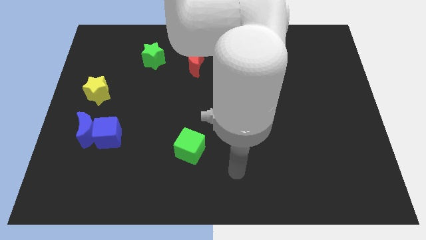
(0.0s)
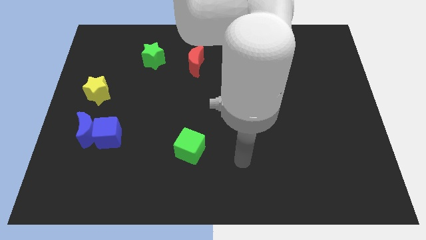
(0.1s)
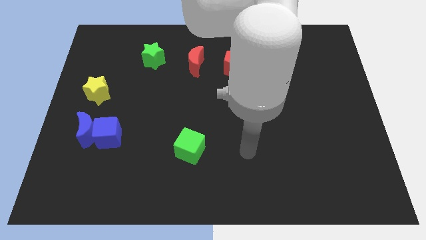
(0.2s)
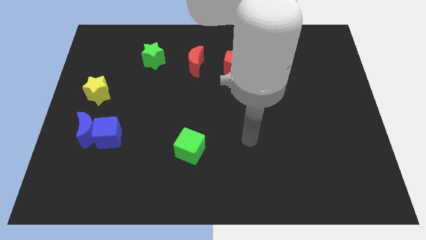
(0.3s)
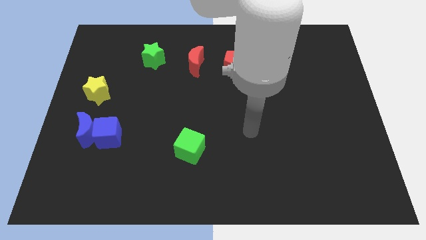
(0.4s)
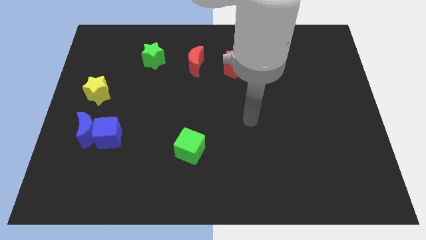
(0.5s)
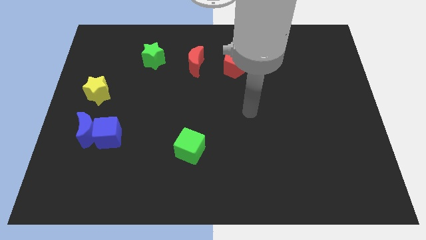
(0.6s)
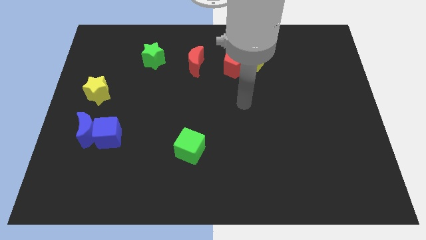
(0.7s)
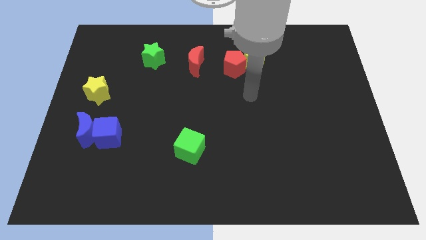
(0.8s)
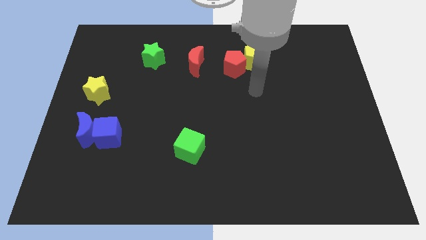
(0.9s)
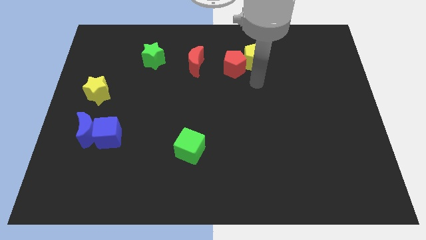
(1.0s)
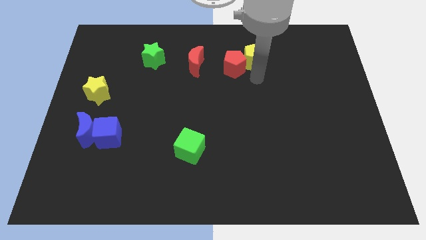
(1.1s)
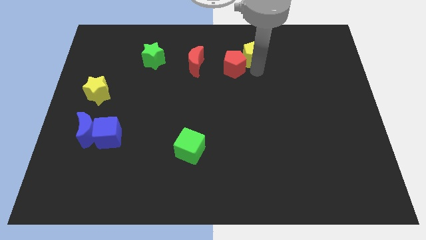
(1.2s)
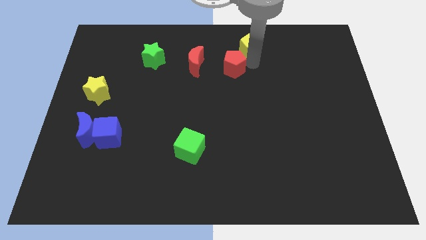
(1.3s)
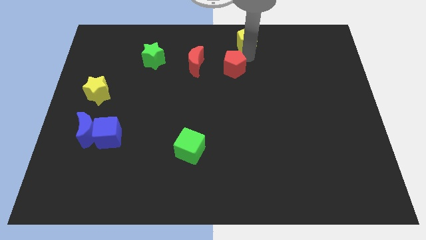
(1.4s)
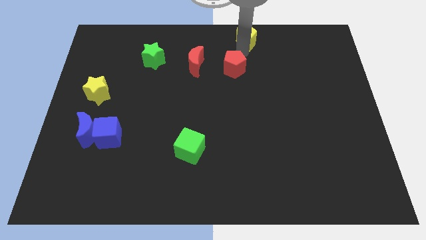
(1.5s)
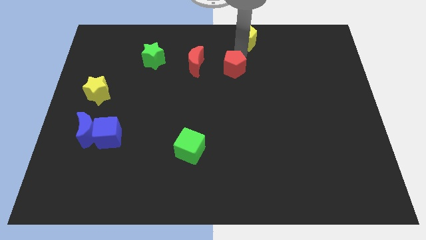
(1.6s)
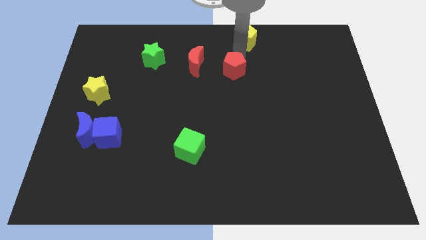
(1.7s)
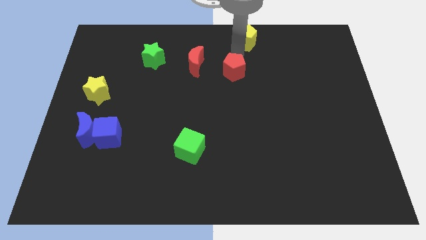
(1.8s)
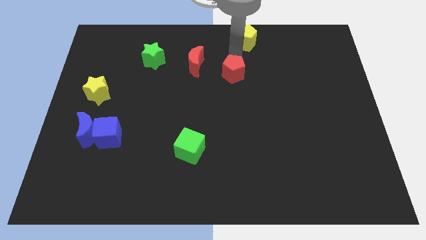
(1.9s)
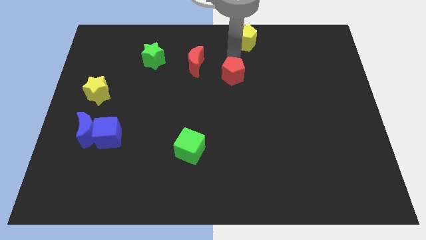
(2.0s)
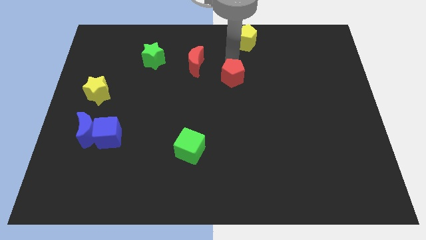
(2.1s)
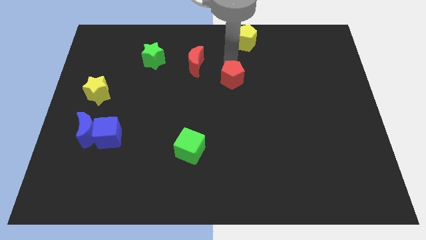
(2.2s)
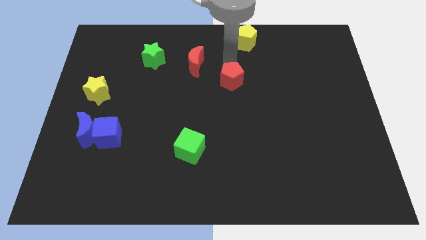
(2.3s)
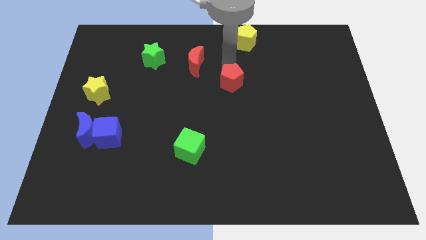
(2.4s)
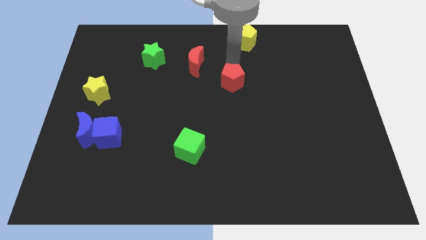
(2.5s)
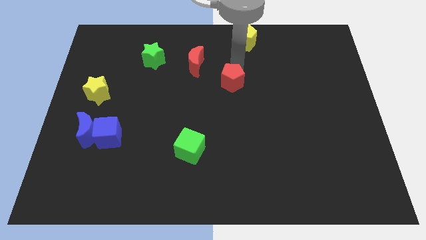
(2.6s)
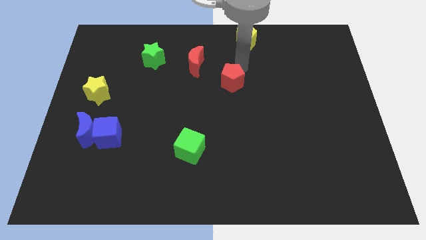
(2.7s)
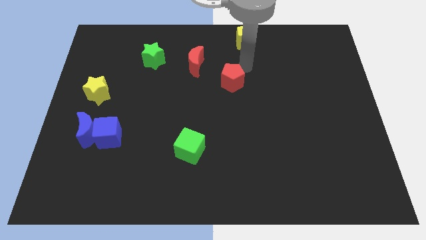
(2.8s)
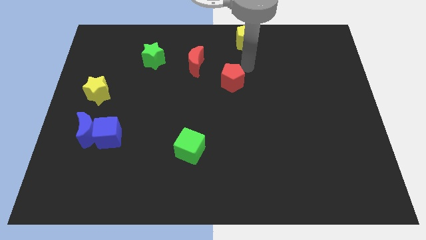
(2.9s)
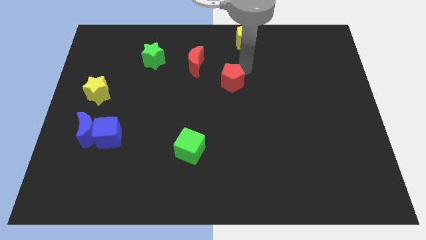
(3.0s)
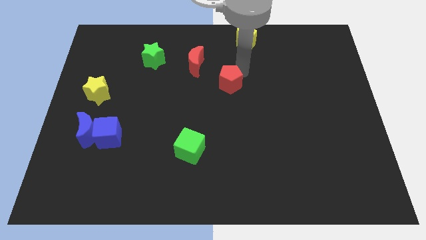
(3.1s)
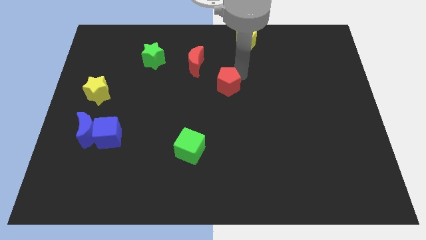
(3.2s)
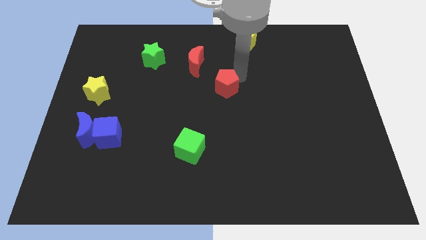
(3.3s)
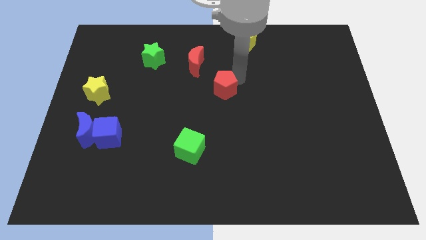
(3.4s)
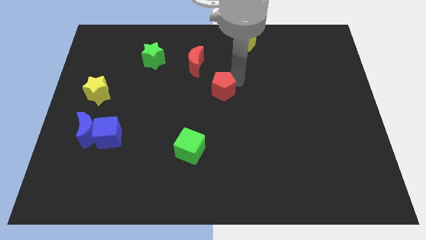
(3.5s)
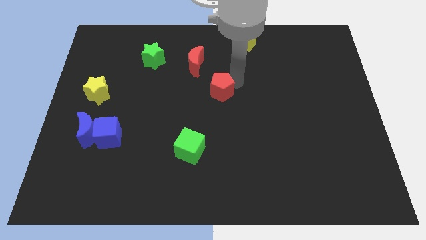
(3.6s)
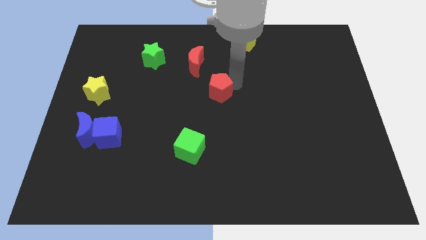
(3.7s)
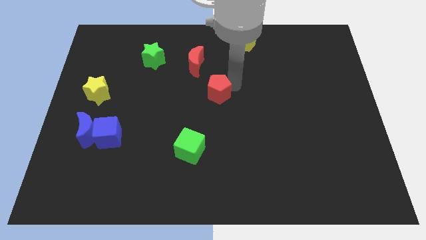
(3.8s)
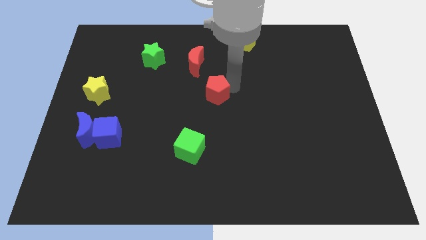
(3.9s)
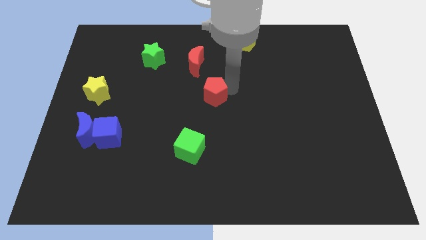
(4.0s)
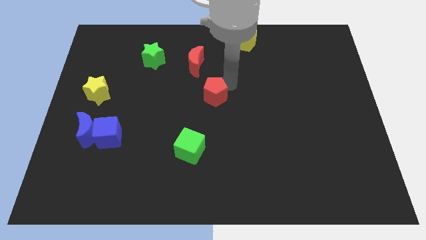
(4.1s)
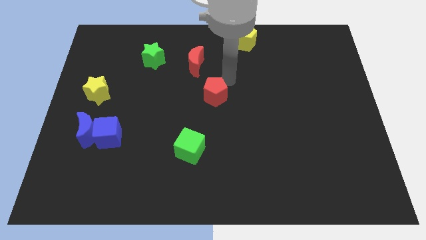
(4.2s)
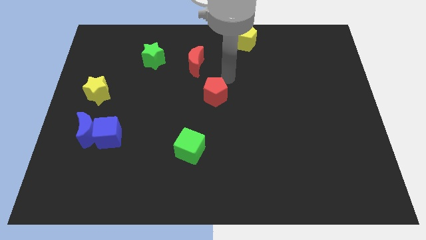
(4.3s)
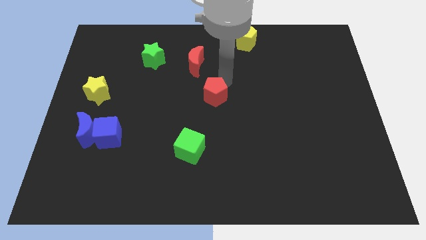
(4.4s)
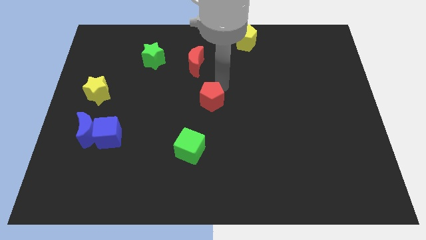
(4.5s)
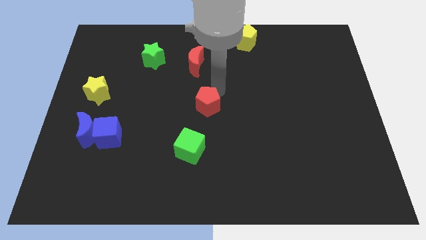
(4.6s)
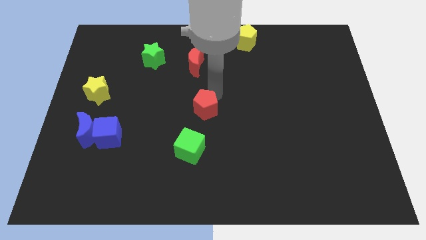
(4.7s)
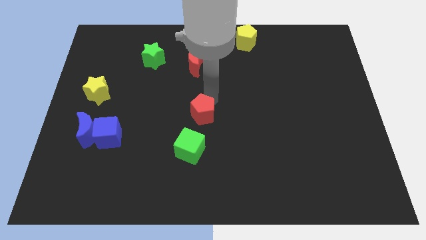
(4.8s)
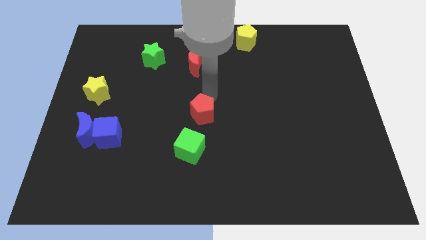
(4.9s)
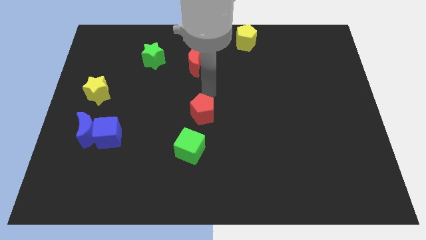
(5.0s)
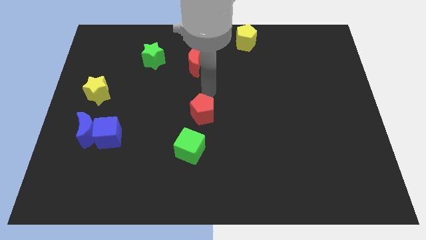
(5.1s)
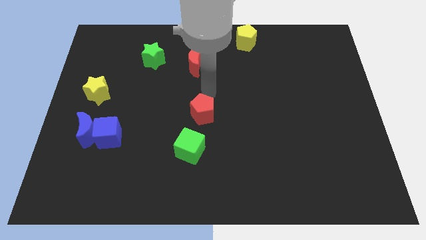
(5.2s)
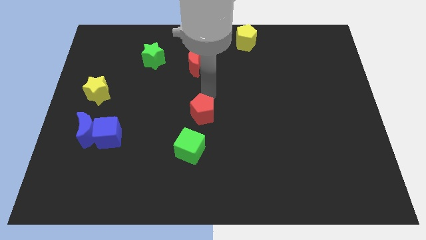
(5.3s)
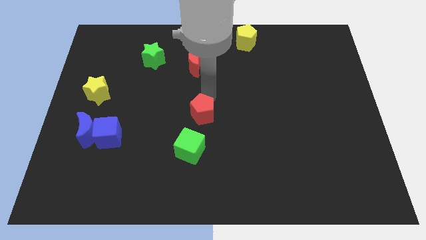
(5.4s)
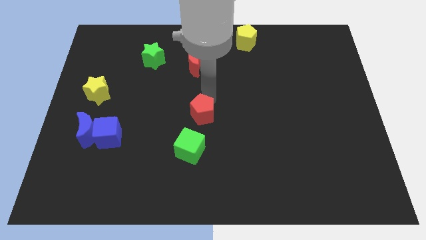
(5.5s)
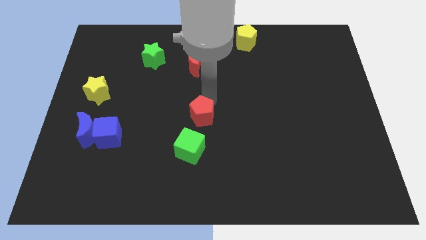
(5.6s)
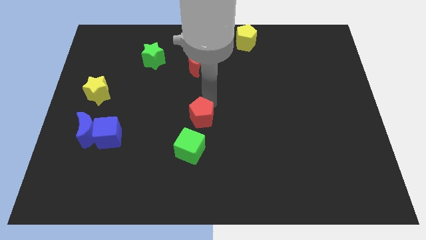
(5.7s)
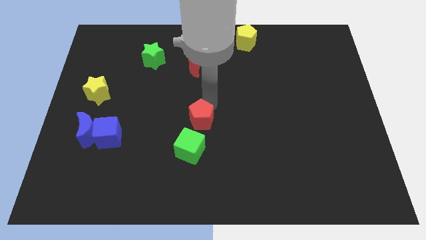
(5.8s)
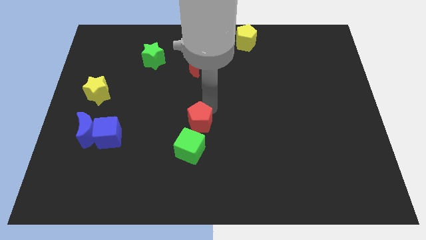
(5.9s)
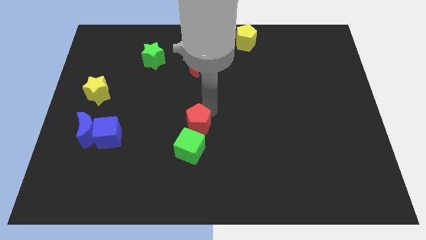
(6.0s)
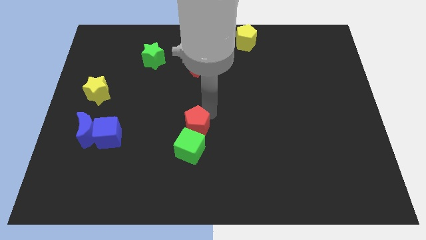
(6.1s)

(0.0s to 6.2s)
push the red pentagon close to the green cube
